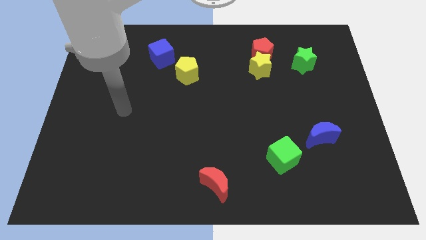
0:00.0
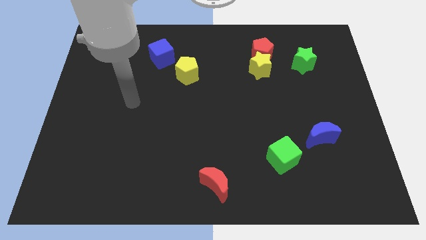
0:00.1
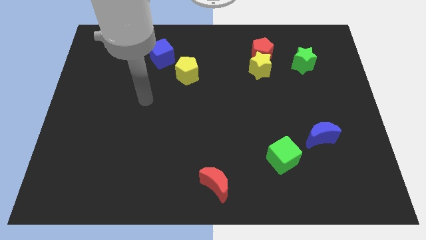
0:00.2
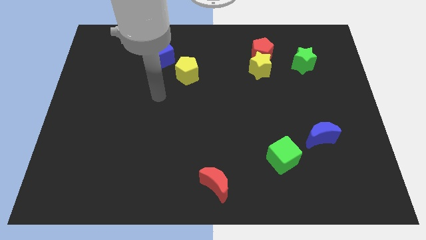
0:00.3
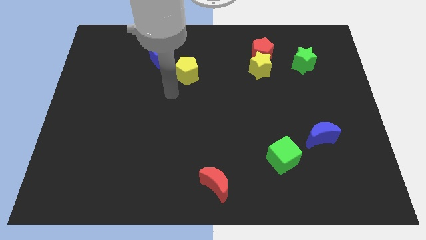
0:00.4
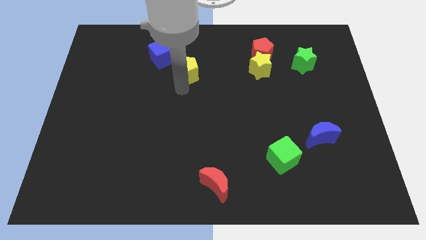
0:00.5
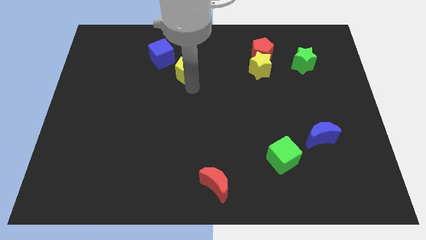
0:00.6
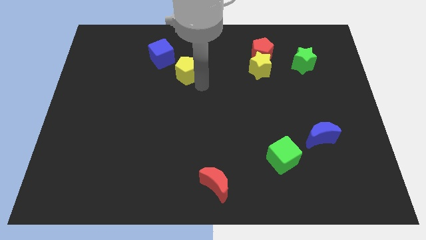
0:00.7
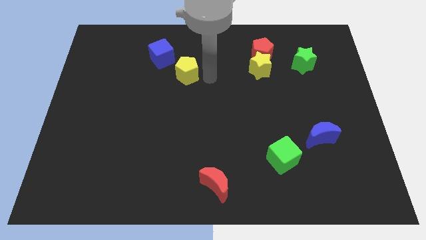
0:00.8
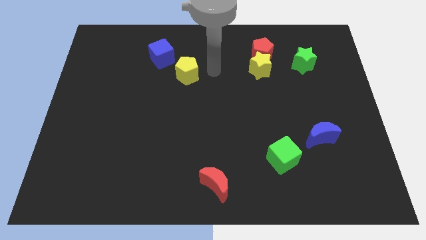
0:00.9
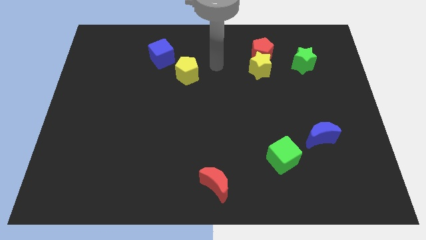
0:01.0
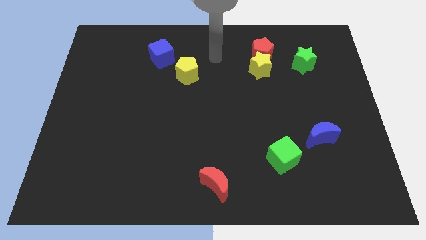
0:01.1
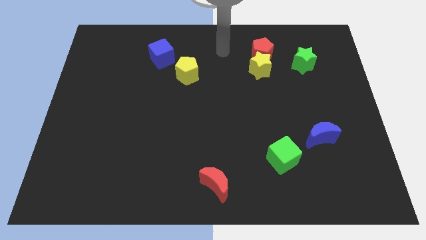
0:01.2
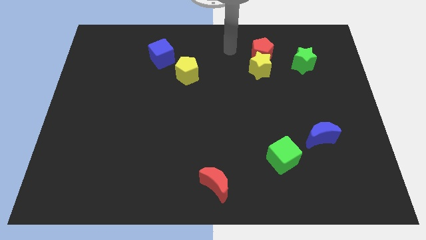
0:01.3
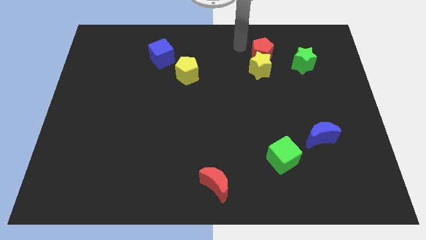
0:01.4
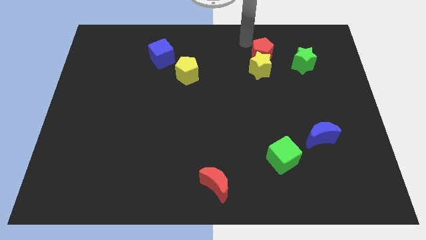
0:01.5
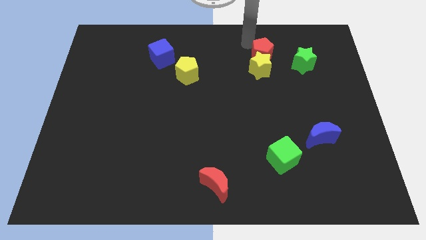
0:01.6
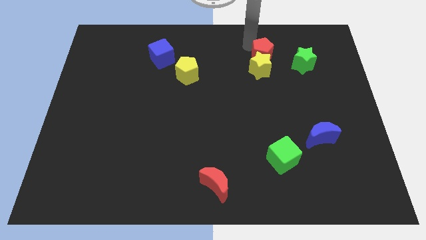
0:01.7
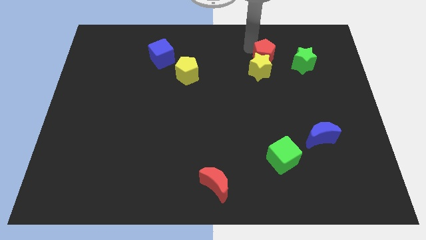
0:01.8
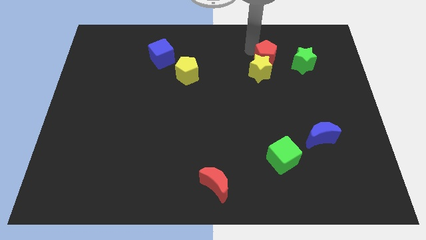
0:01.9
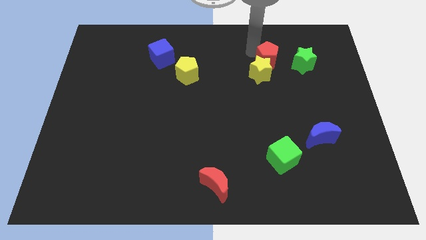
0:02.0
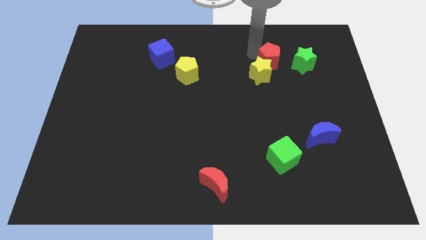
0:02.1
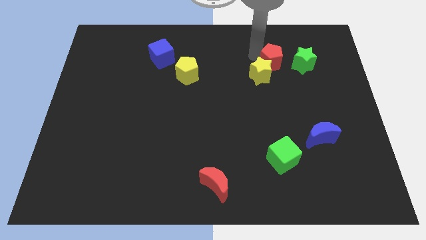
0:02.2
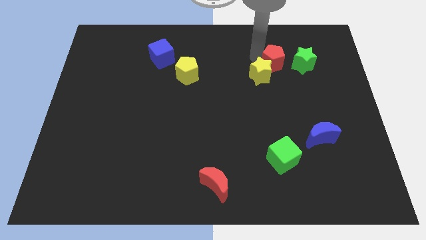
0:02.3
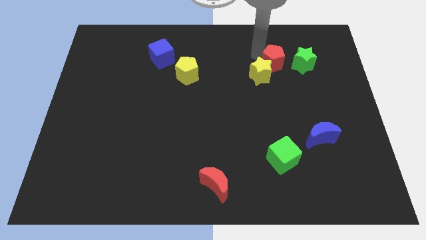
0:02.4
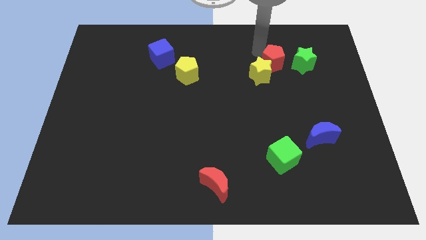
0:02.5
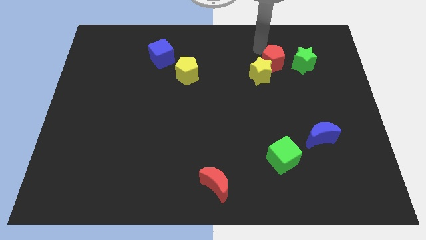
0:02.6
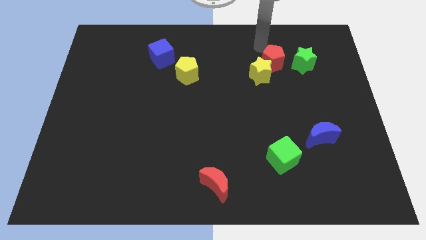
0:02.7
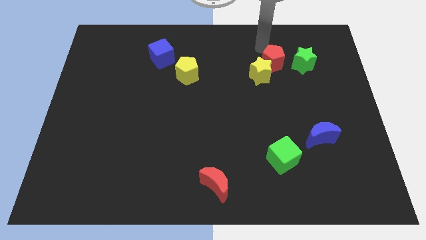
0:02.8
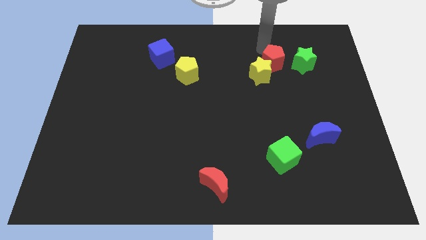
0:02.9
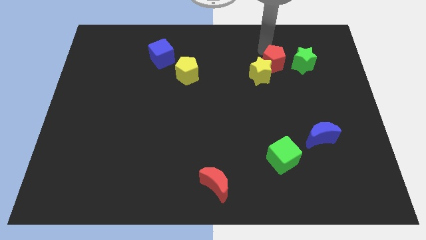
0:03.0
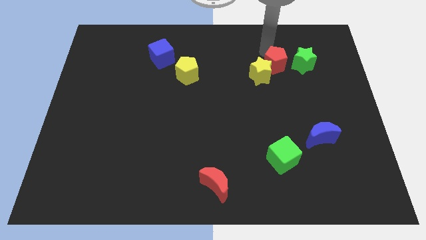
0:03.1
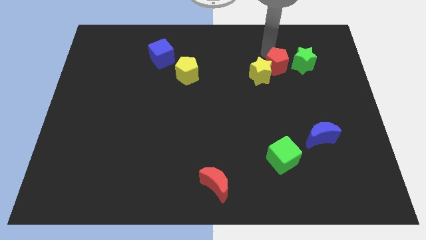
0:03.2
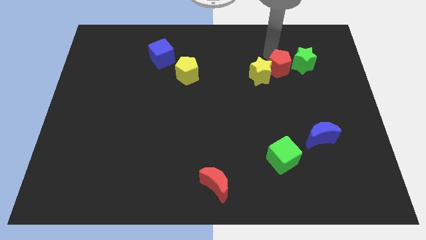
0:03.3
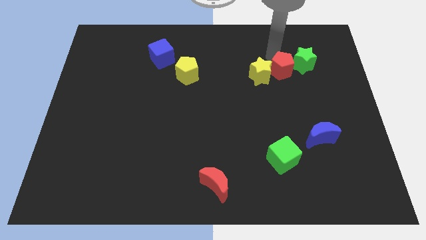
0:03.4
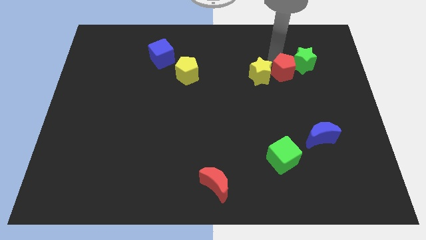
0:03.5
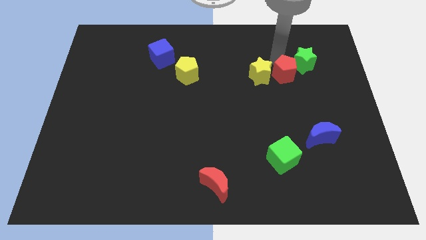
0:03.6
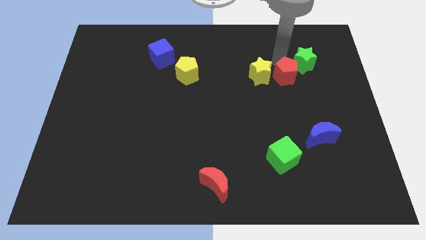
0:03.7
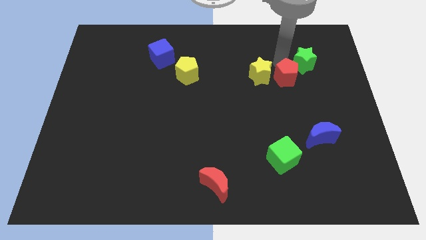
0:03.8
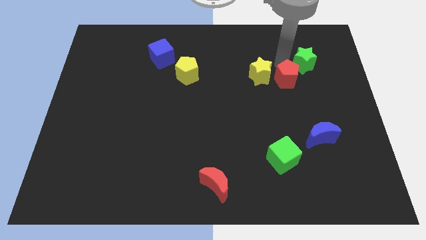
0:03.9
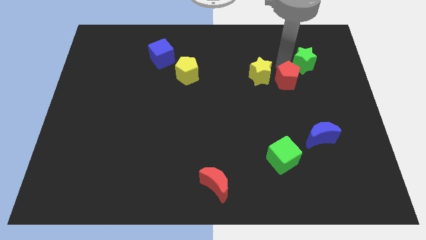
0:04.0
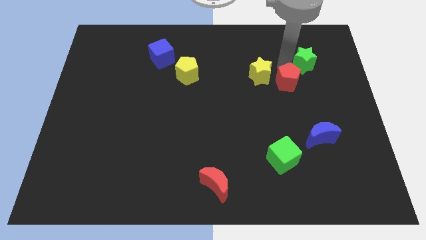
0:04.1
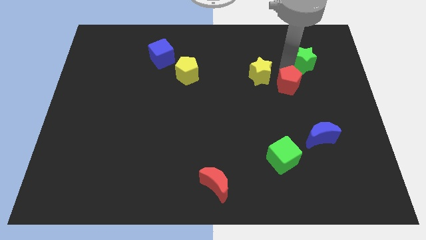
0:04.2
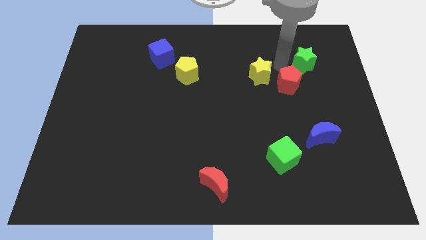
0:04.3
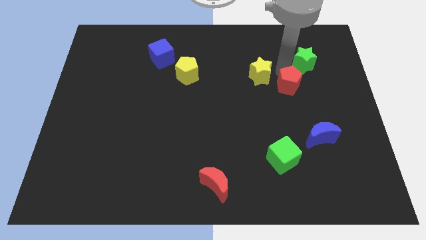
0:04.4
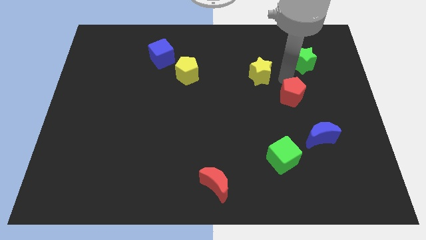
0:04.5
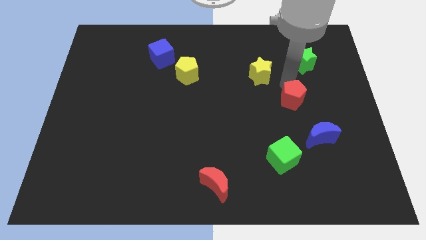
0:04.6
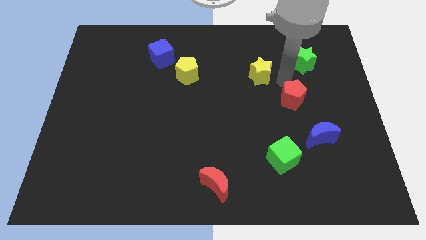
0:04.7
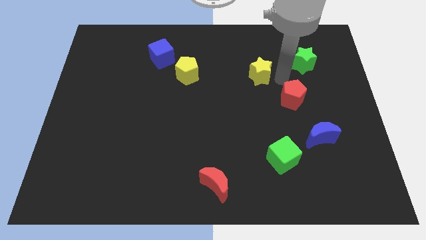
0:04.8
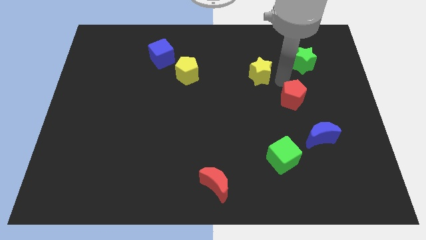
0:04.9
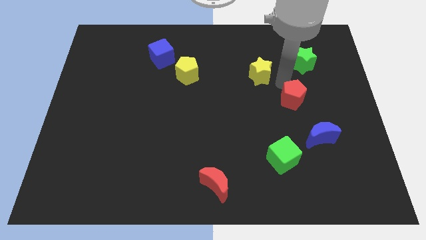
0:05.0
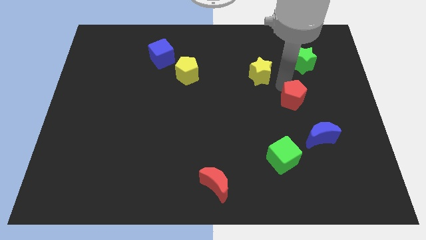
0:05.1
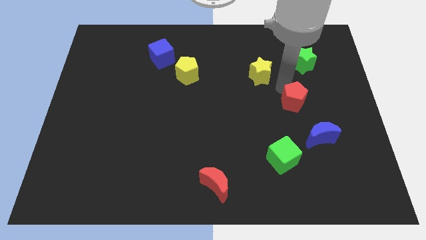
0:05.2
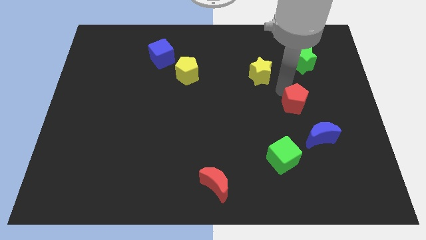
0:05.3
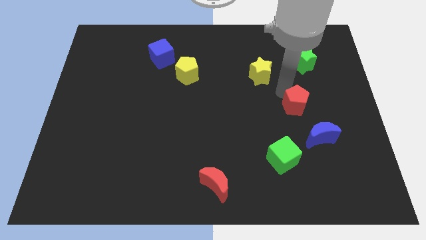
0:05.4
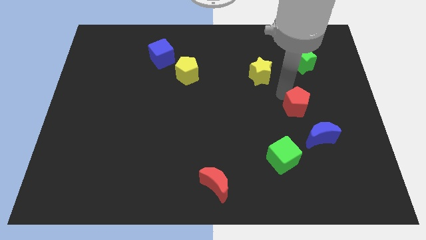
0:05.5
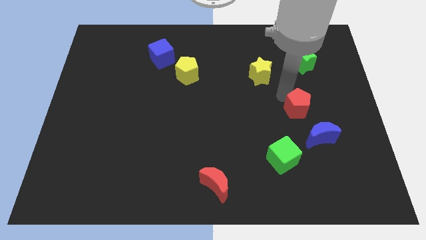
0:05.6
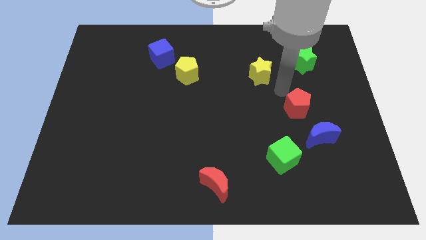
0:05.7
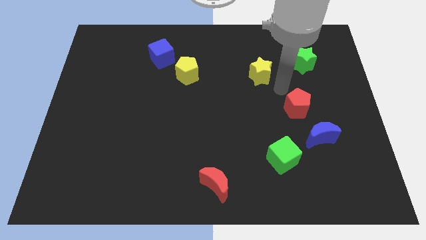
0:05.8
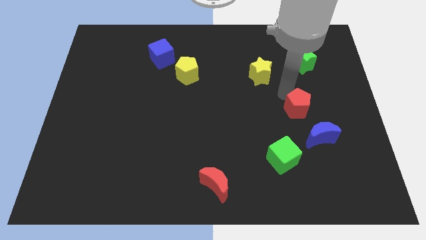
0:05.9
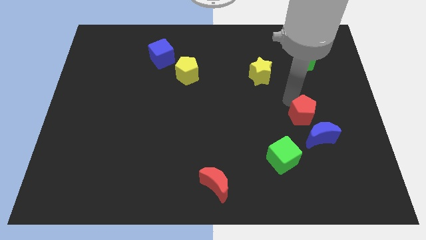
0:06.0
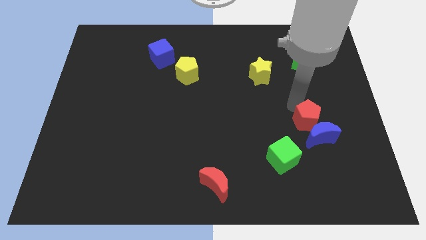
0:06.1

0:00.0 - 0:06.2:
put the red pentagon close to the blue moon

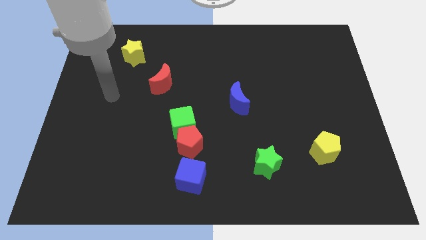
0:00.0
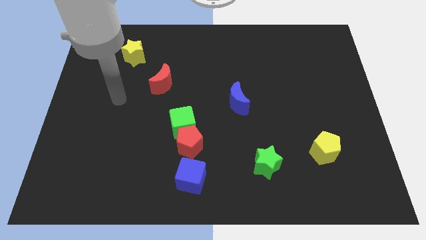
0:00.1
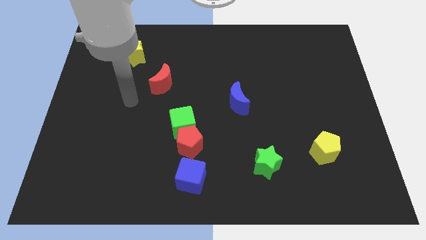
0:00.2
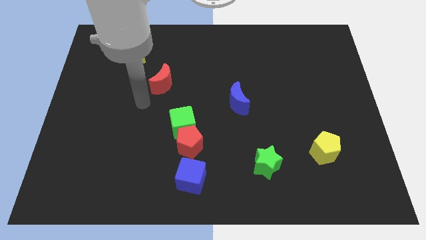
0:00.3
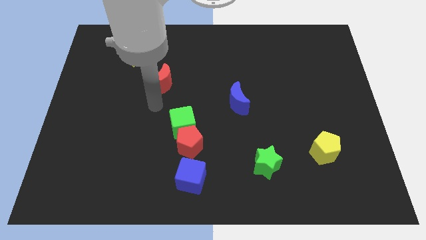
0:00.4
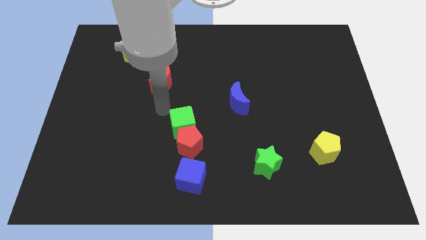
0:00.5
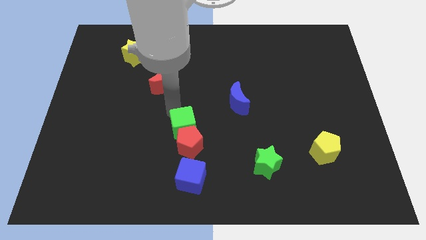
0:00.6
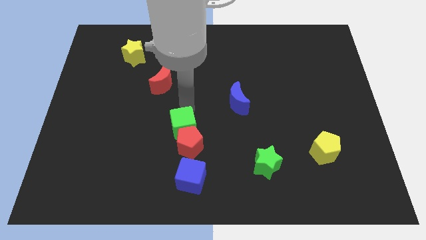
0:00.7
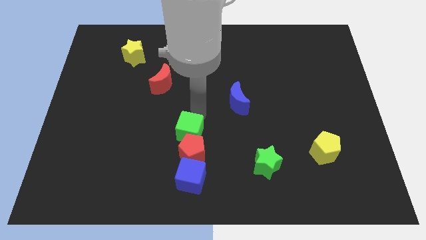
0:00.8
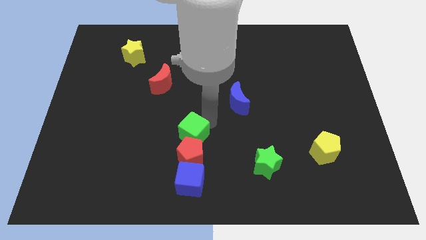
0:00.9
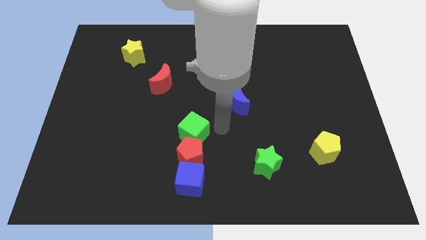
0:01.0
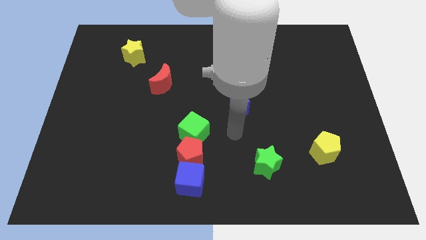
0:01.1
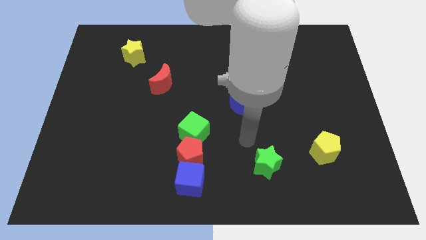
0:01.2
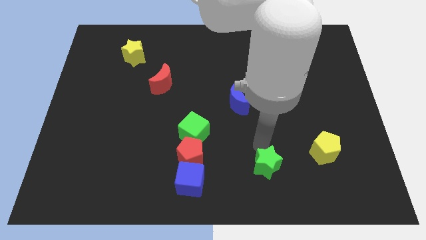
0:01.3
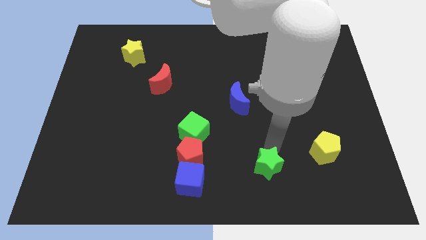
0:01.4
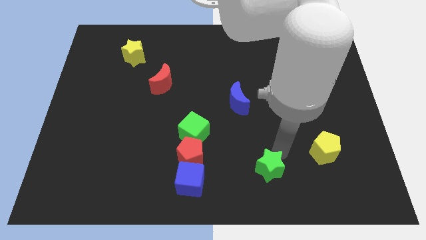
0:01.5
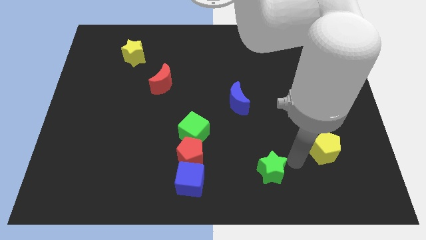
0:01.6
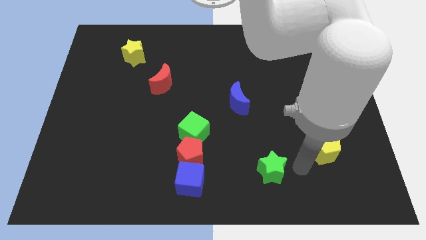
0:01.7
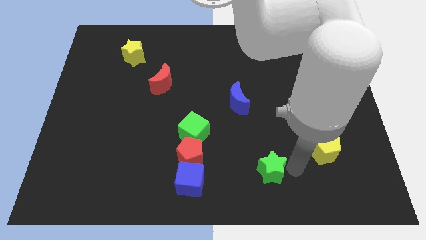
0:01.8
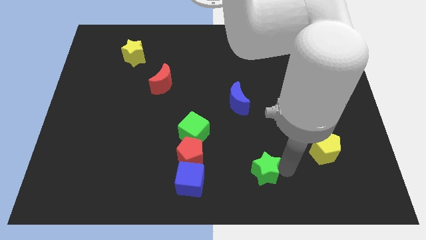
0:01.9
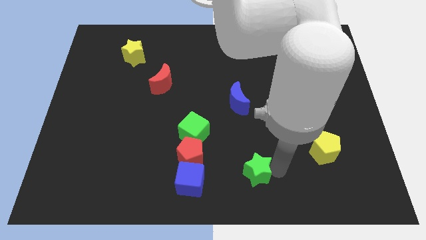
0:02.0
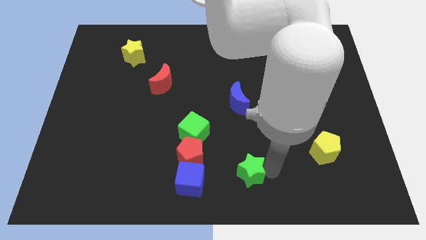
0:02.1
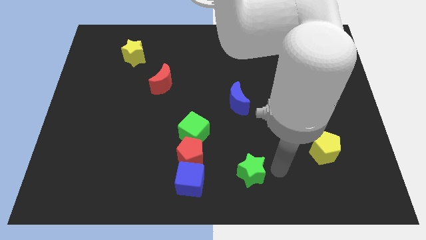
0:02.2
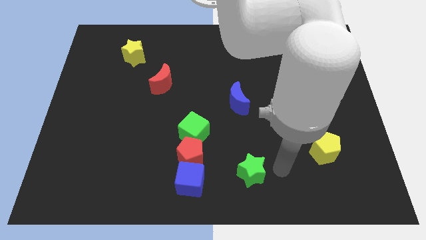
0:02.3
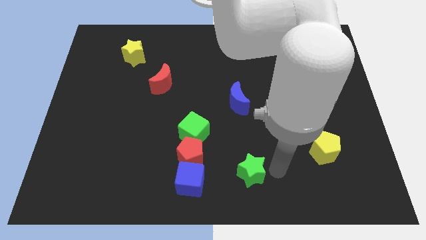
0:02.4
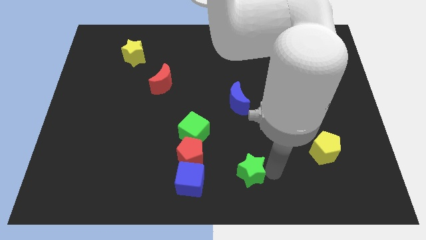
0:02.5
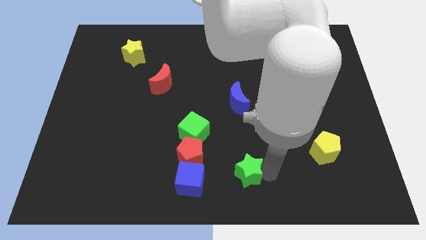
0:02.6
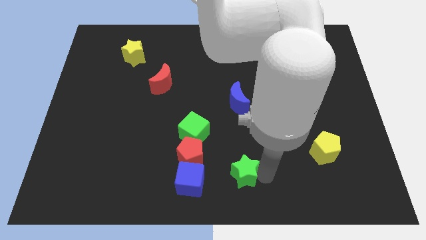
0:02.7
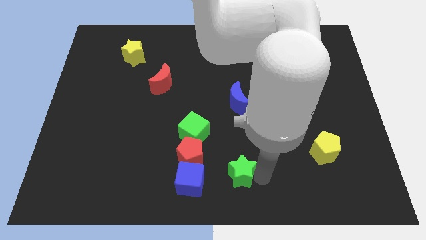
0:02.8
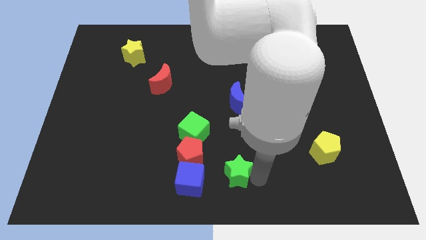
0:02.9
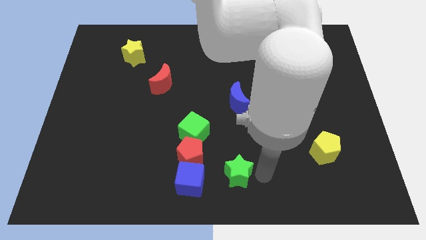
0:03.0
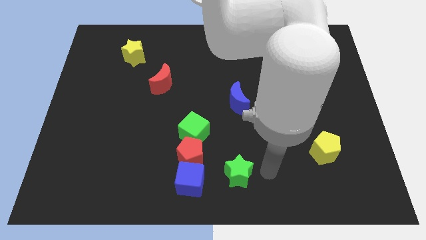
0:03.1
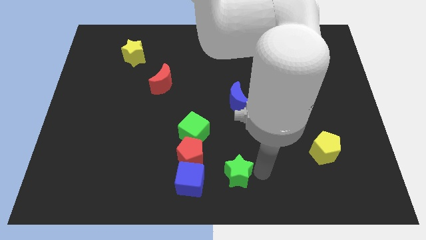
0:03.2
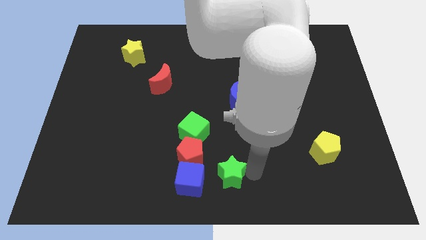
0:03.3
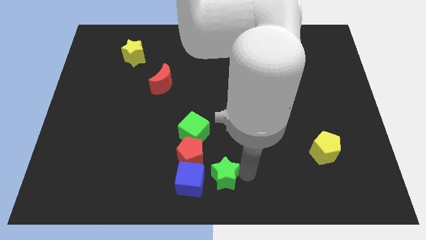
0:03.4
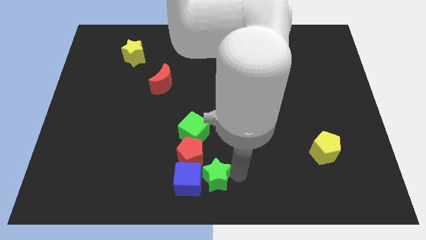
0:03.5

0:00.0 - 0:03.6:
move the green star close to the blue cube
